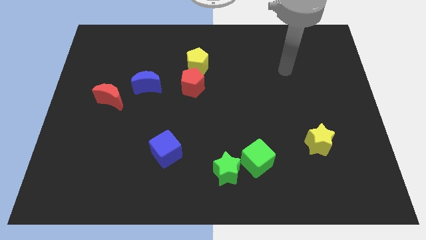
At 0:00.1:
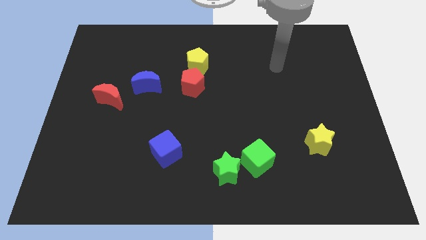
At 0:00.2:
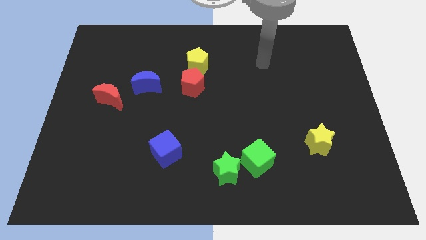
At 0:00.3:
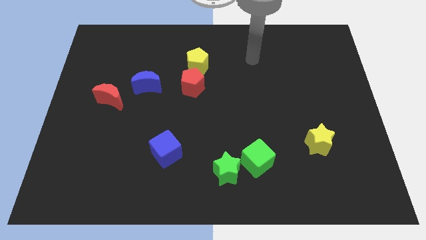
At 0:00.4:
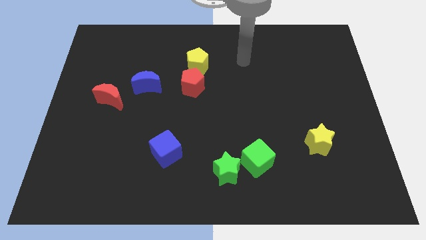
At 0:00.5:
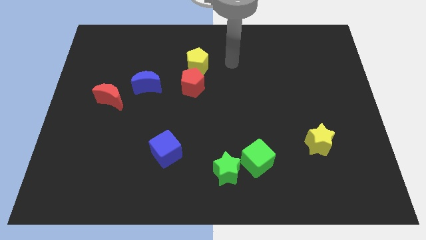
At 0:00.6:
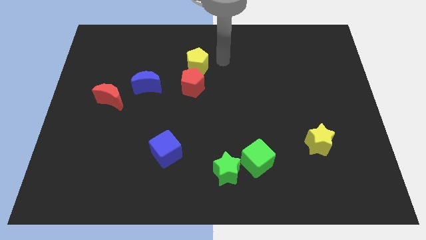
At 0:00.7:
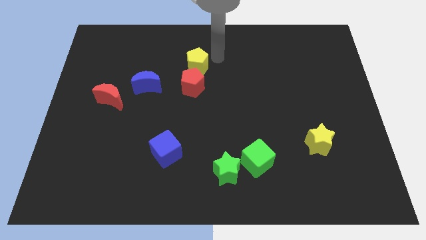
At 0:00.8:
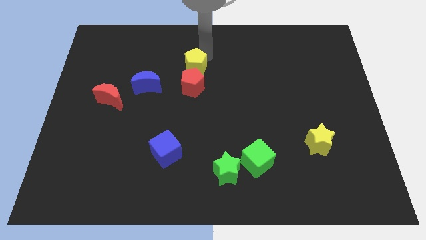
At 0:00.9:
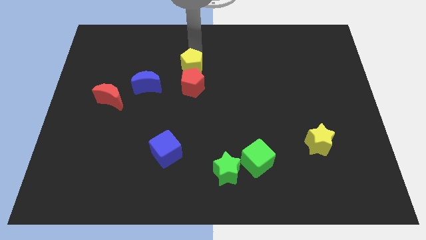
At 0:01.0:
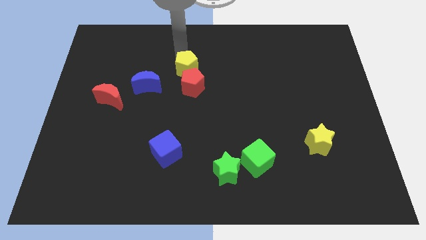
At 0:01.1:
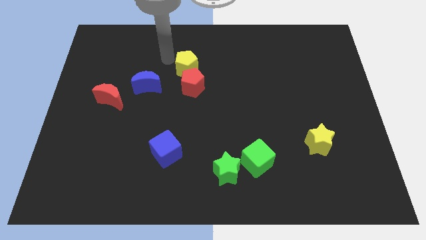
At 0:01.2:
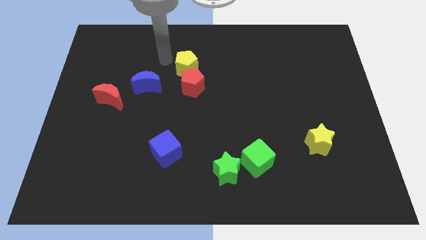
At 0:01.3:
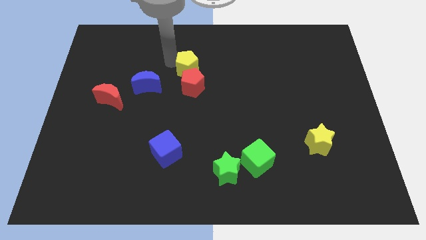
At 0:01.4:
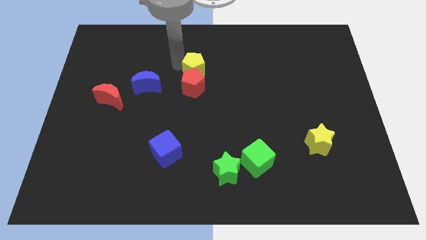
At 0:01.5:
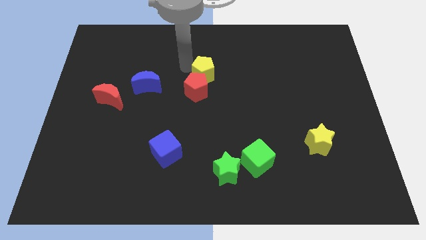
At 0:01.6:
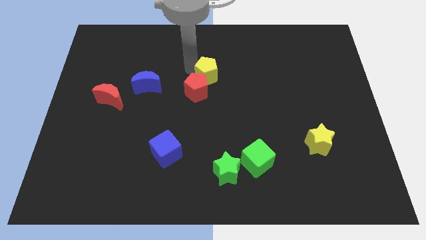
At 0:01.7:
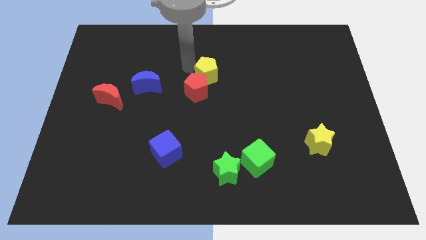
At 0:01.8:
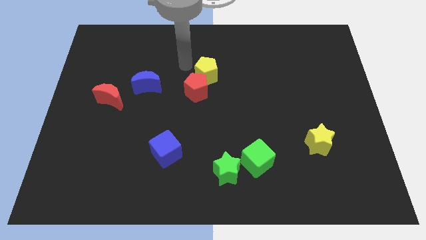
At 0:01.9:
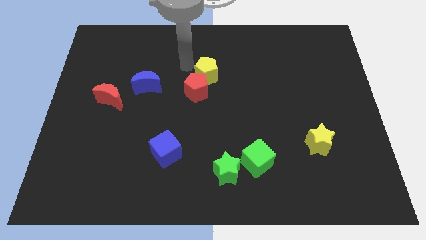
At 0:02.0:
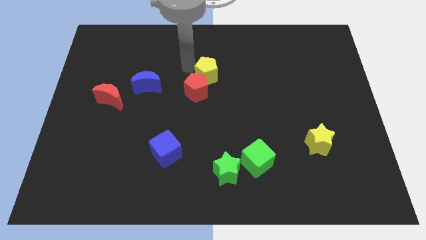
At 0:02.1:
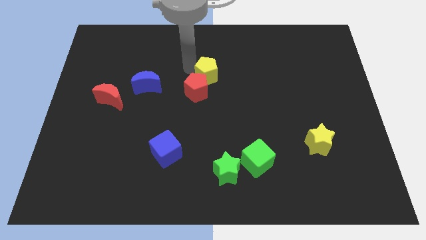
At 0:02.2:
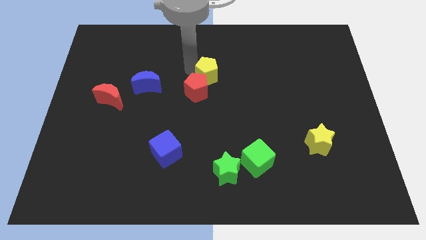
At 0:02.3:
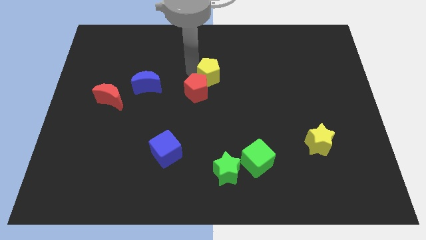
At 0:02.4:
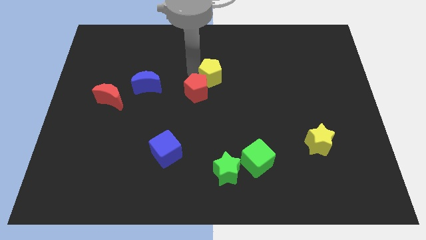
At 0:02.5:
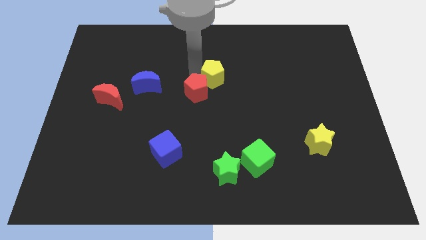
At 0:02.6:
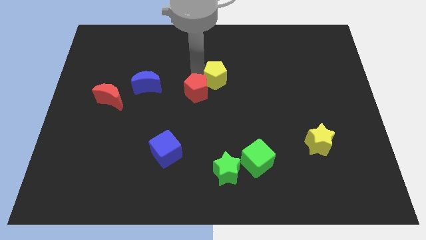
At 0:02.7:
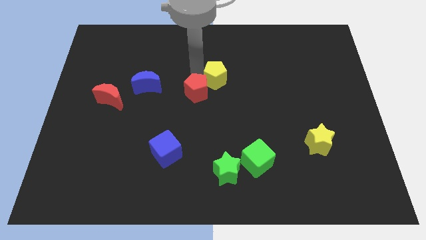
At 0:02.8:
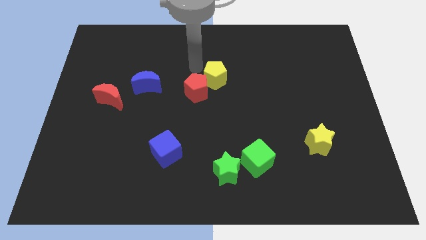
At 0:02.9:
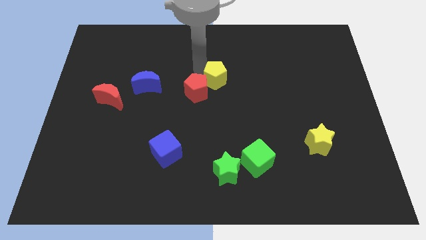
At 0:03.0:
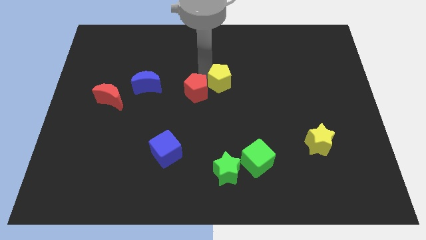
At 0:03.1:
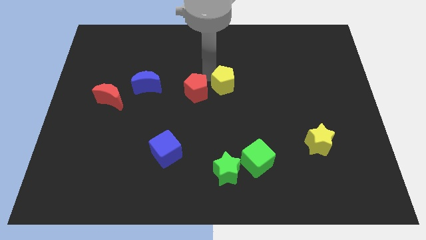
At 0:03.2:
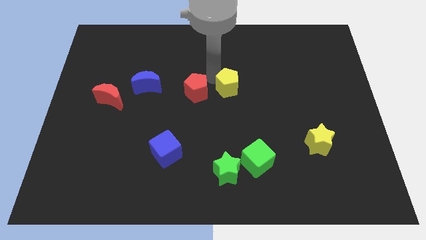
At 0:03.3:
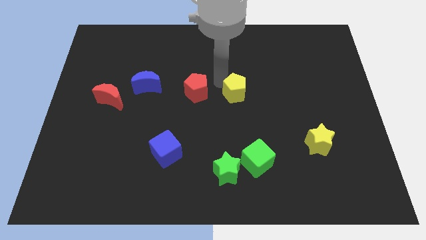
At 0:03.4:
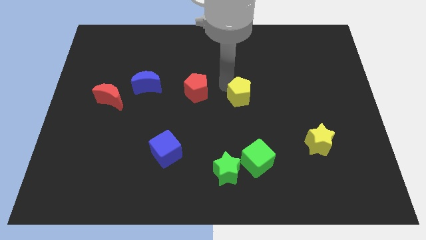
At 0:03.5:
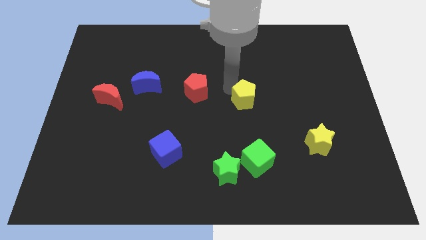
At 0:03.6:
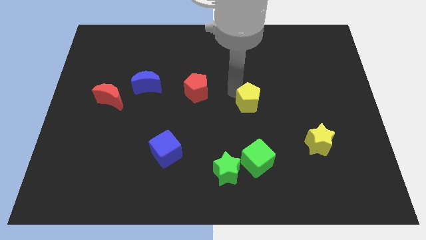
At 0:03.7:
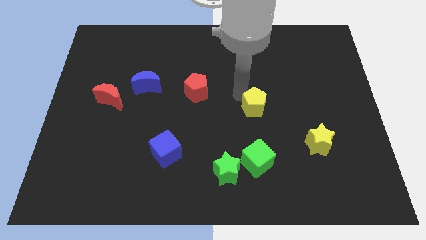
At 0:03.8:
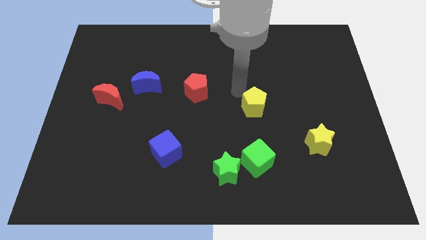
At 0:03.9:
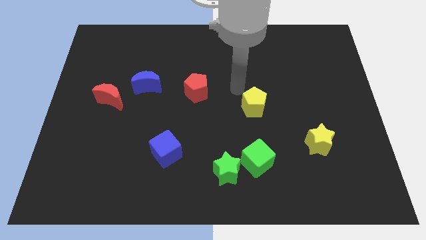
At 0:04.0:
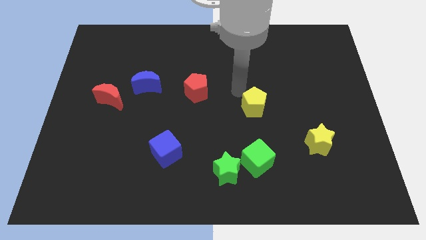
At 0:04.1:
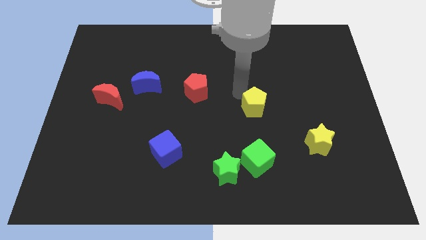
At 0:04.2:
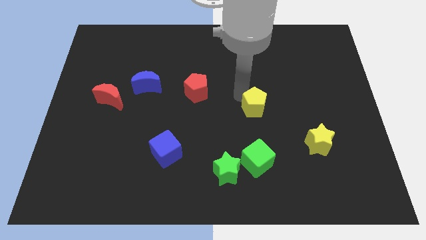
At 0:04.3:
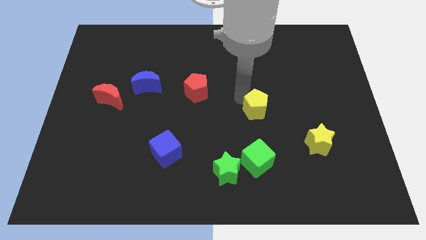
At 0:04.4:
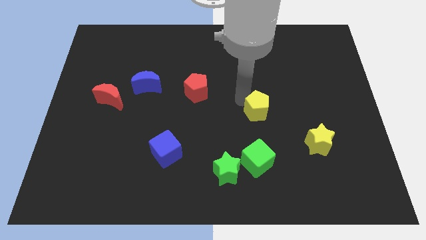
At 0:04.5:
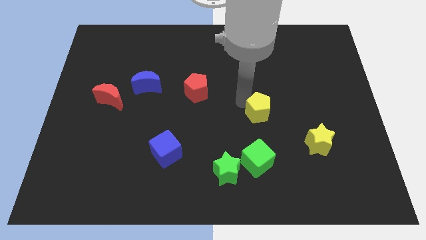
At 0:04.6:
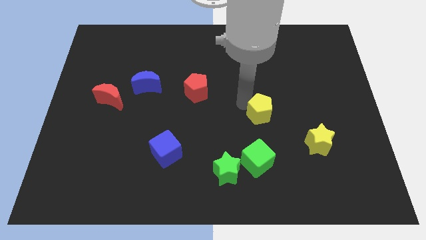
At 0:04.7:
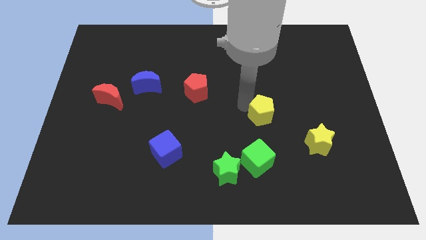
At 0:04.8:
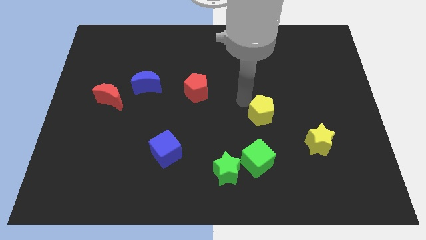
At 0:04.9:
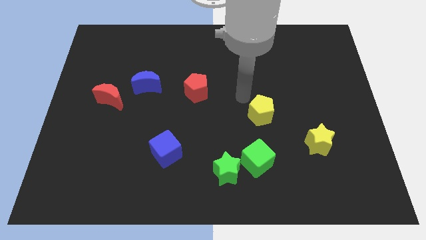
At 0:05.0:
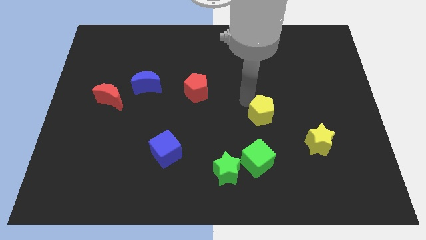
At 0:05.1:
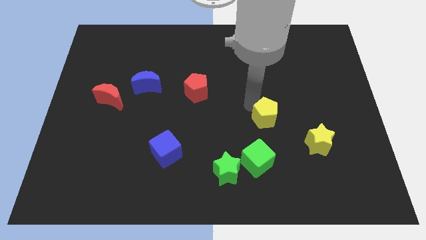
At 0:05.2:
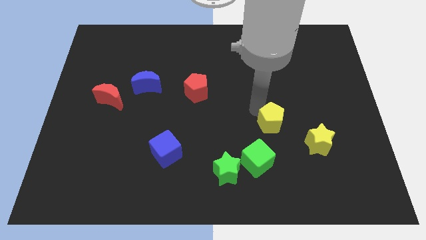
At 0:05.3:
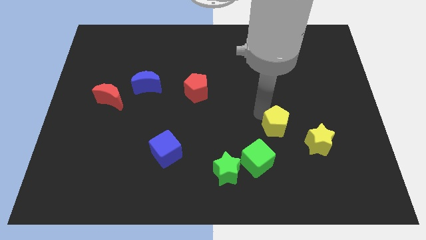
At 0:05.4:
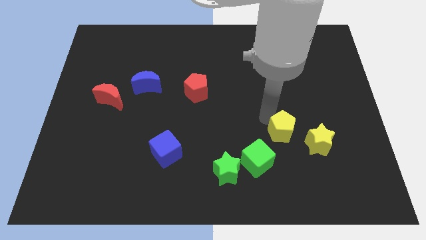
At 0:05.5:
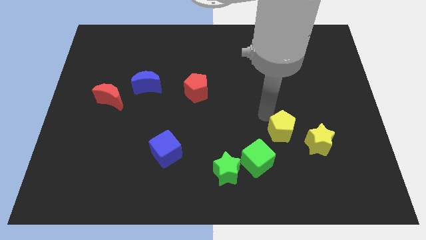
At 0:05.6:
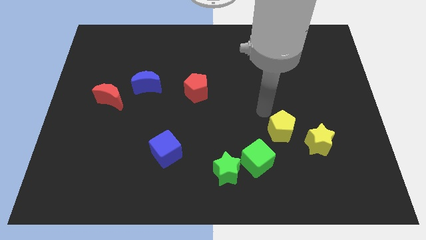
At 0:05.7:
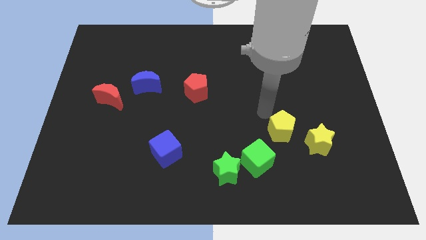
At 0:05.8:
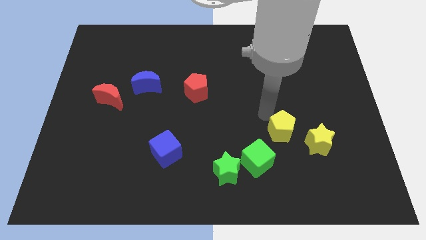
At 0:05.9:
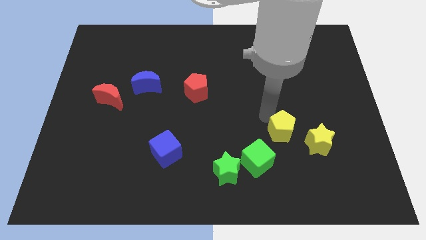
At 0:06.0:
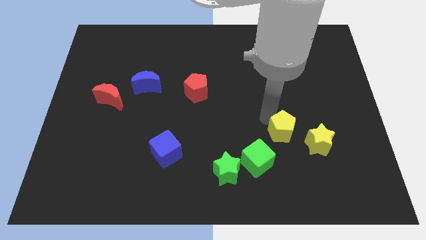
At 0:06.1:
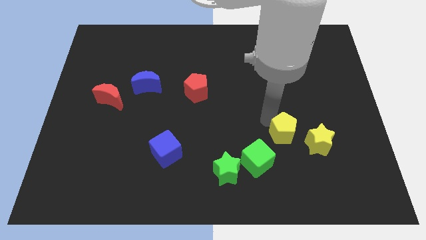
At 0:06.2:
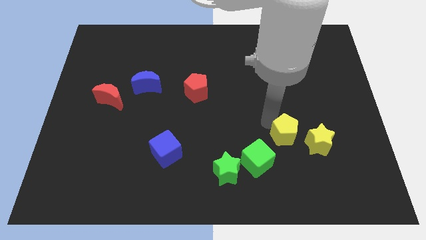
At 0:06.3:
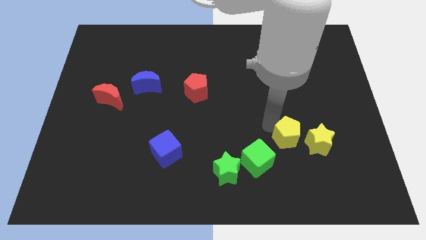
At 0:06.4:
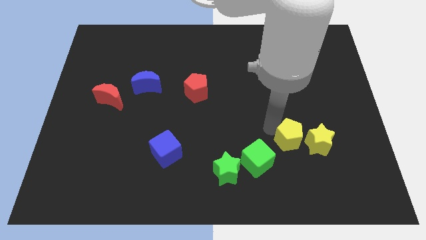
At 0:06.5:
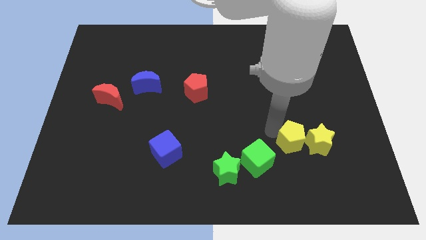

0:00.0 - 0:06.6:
put the yellow pentagon to the right side of the green cube
